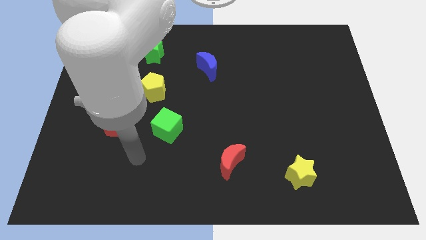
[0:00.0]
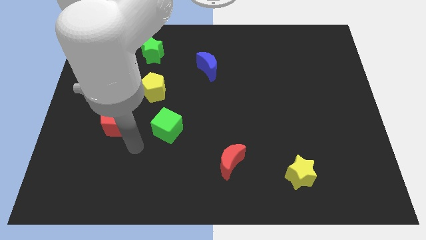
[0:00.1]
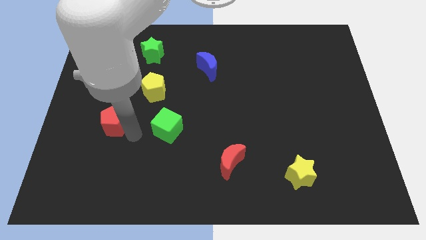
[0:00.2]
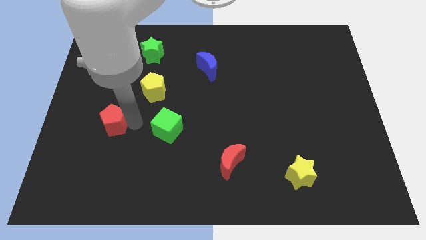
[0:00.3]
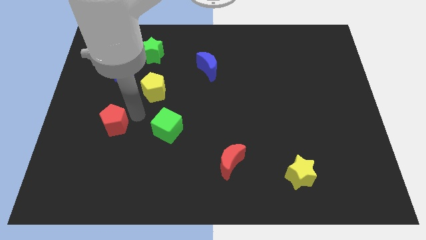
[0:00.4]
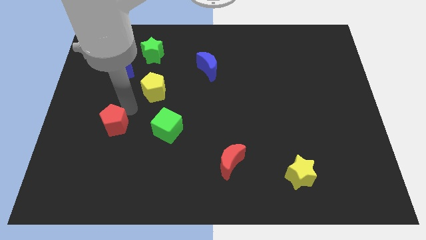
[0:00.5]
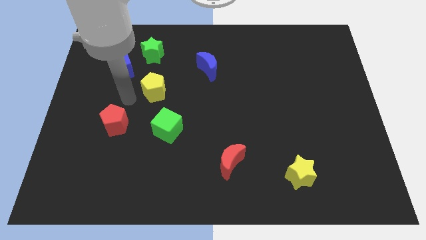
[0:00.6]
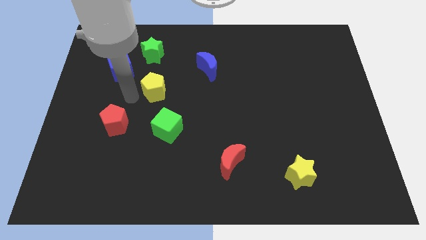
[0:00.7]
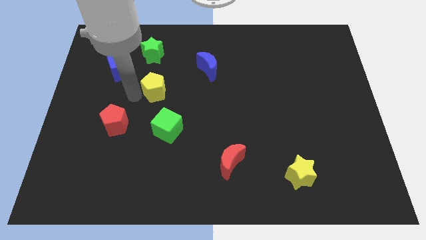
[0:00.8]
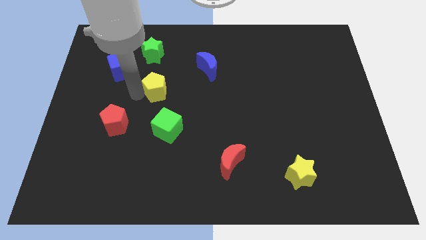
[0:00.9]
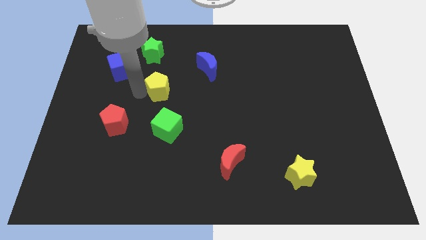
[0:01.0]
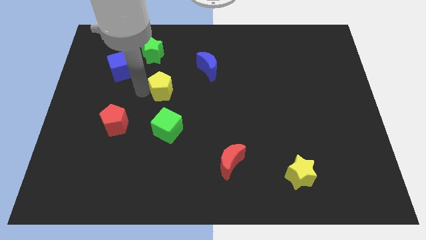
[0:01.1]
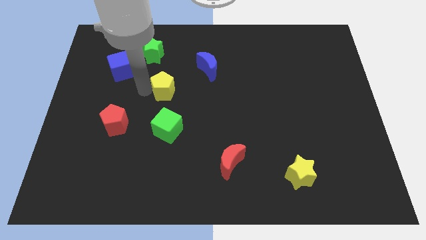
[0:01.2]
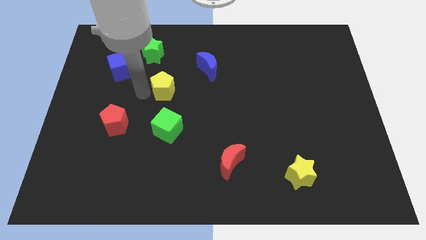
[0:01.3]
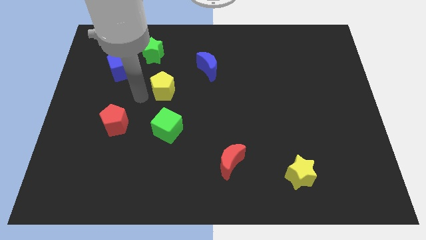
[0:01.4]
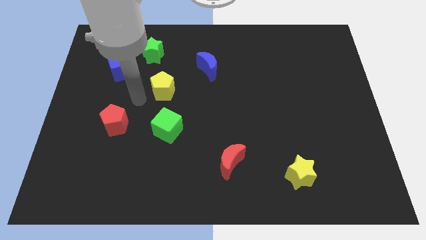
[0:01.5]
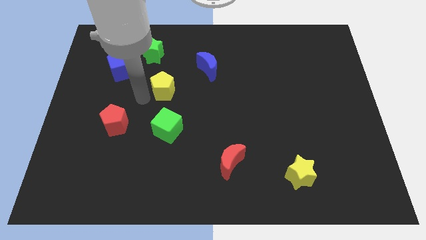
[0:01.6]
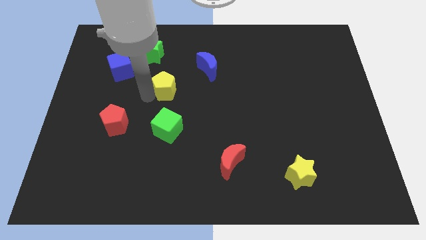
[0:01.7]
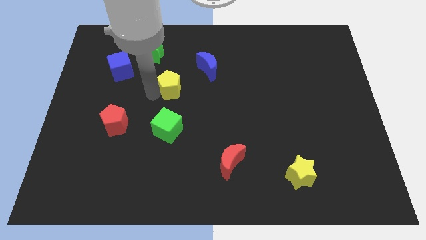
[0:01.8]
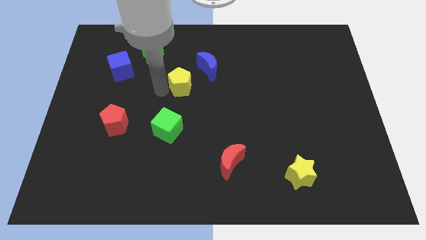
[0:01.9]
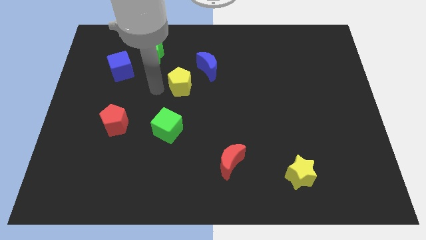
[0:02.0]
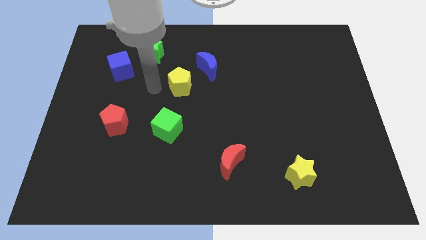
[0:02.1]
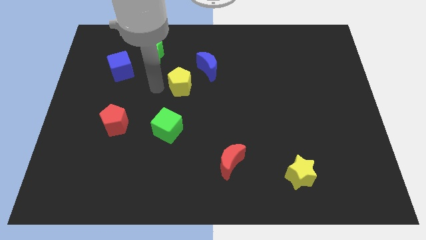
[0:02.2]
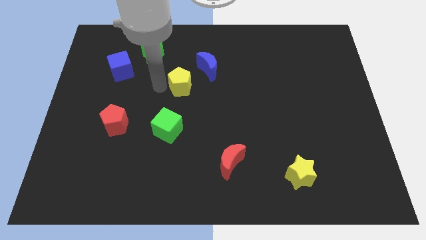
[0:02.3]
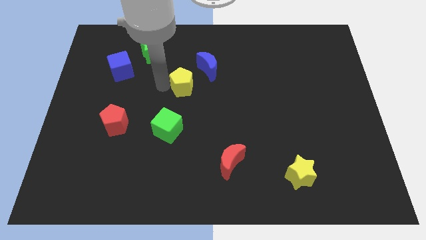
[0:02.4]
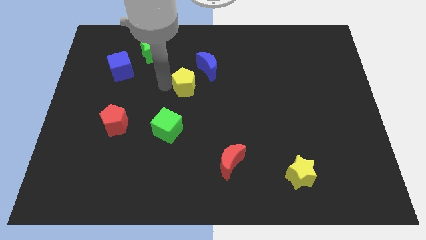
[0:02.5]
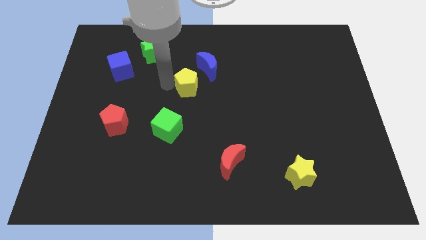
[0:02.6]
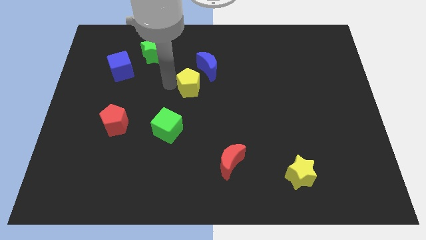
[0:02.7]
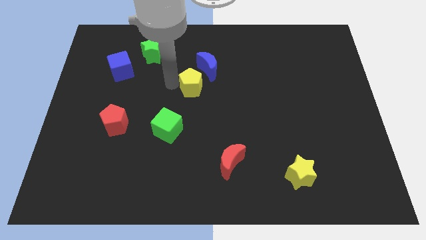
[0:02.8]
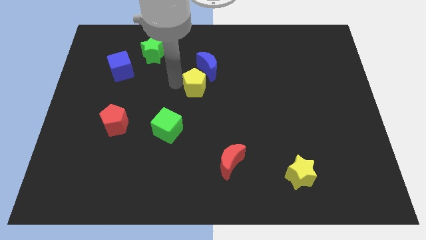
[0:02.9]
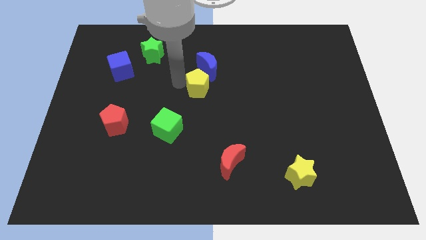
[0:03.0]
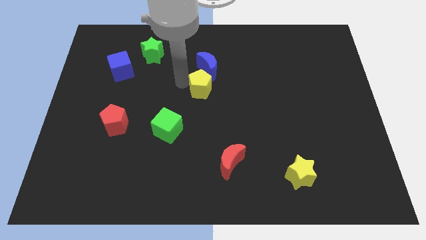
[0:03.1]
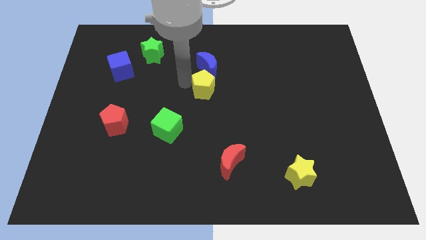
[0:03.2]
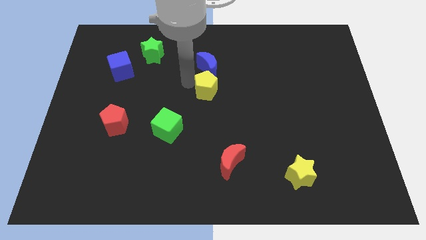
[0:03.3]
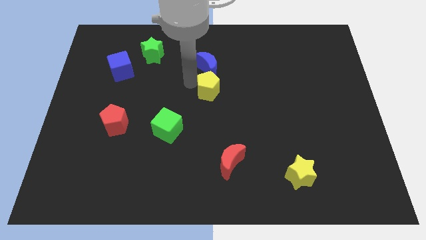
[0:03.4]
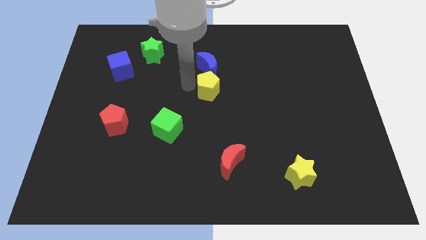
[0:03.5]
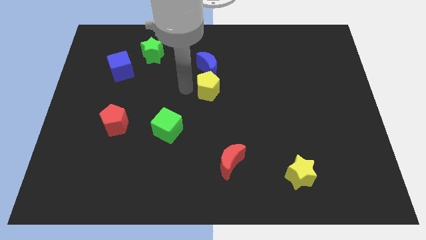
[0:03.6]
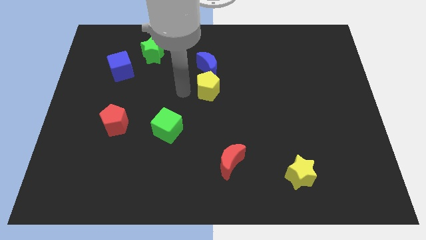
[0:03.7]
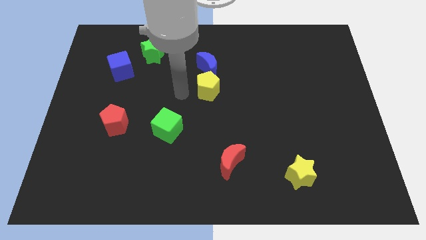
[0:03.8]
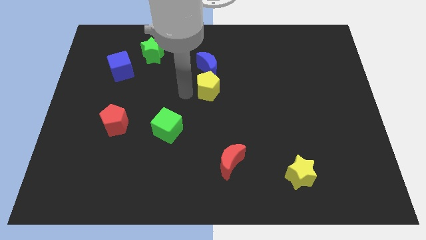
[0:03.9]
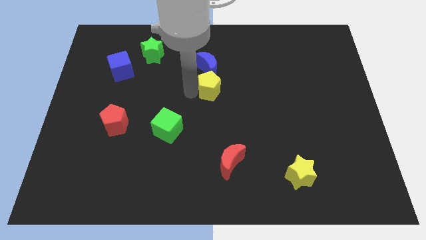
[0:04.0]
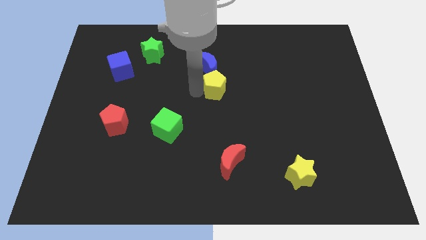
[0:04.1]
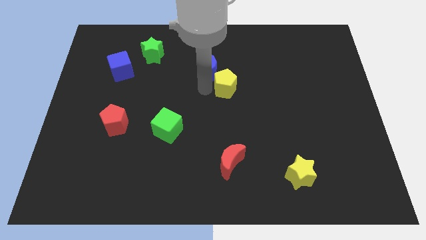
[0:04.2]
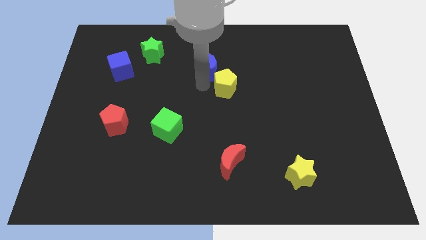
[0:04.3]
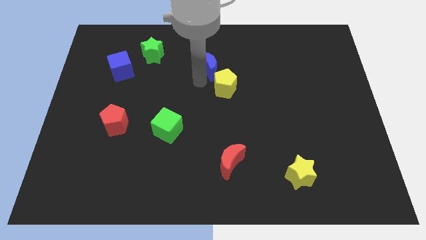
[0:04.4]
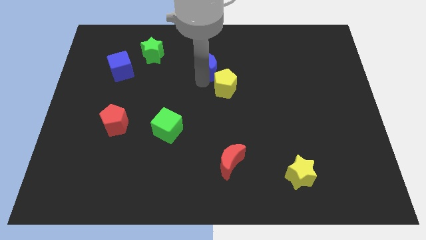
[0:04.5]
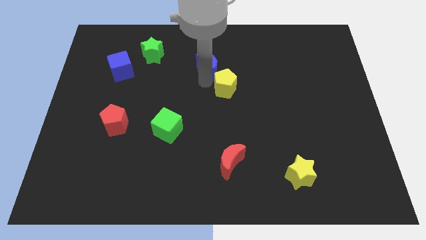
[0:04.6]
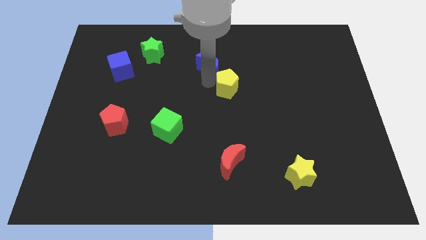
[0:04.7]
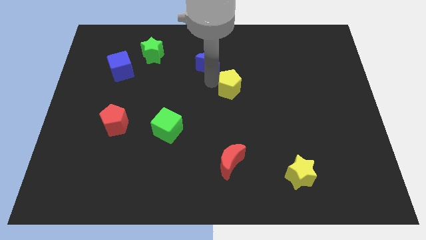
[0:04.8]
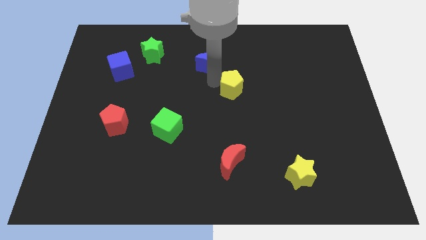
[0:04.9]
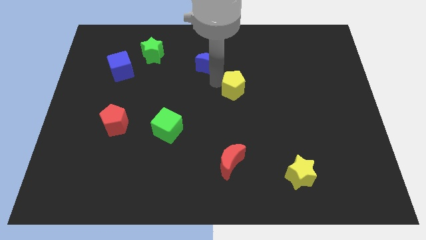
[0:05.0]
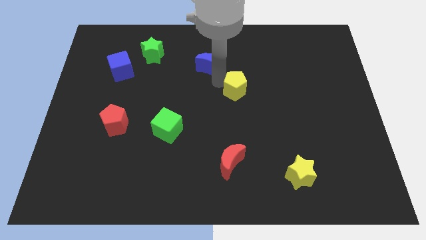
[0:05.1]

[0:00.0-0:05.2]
slide the yellow pentagon to the right

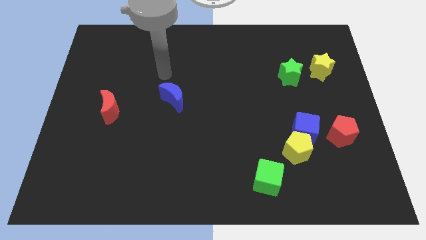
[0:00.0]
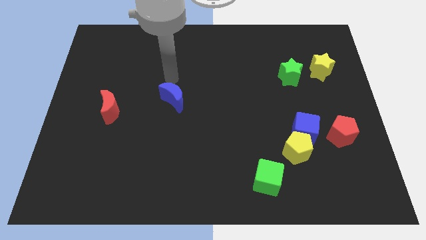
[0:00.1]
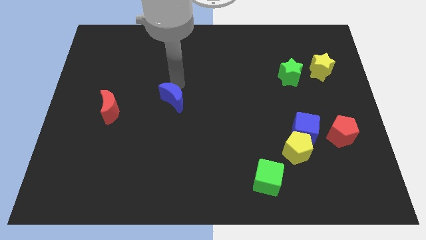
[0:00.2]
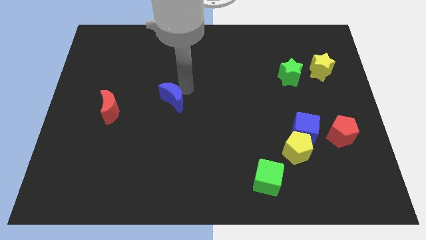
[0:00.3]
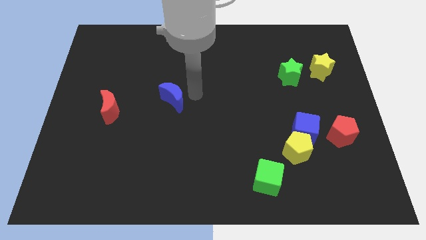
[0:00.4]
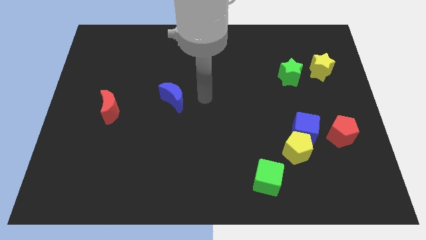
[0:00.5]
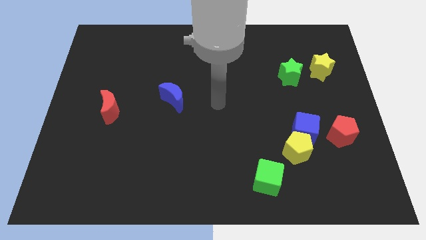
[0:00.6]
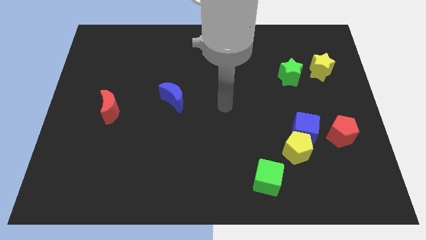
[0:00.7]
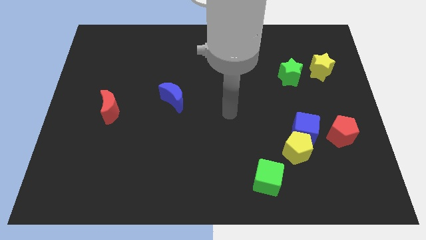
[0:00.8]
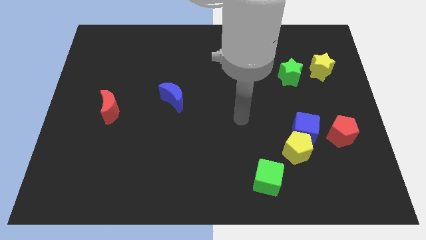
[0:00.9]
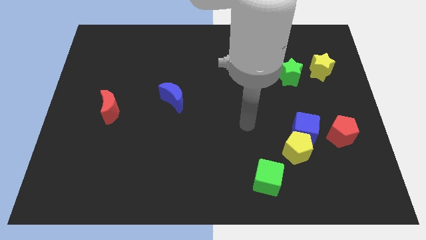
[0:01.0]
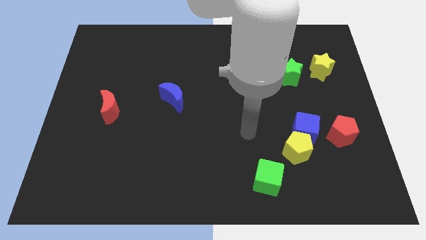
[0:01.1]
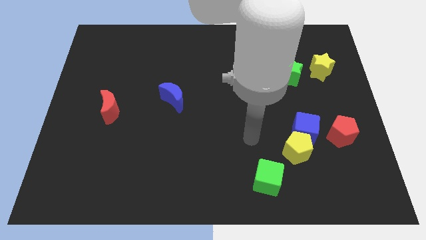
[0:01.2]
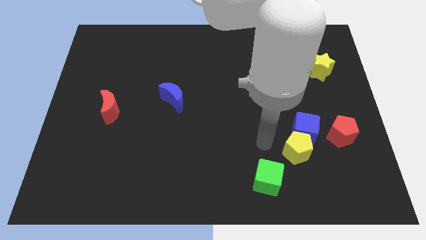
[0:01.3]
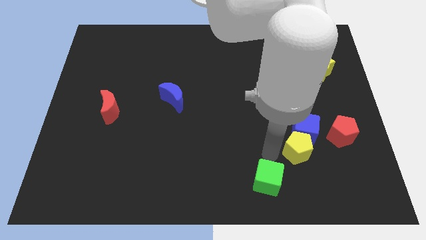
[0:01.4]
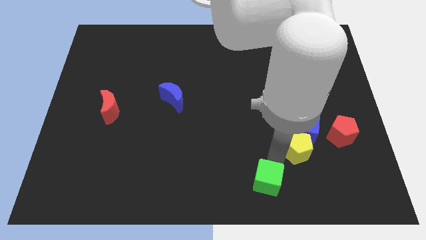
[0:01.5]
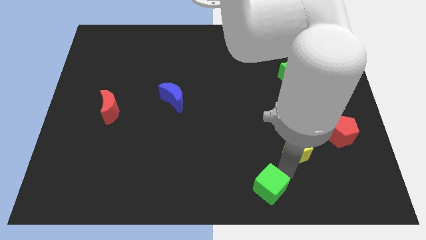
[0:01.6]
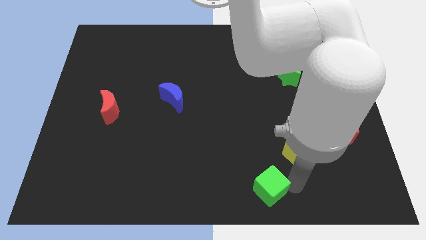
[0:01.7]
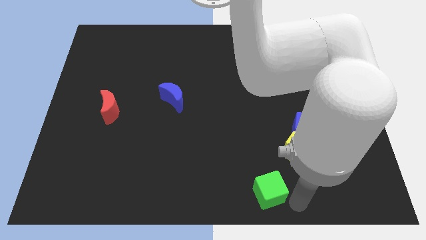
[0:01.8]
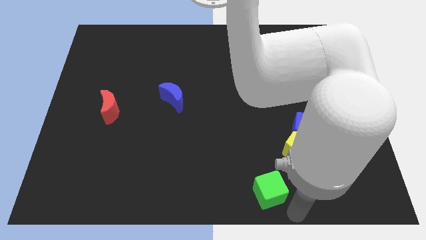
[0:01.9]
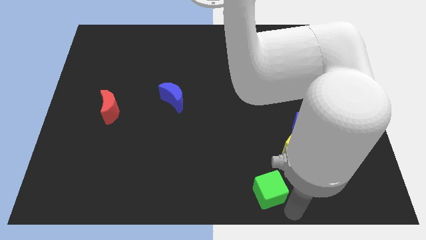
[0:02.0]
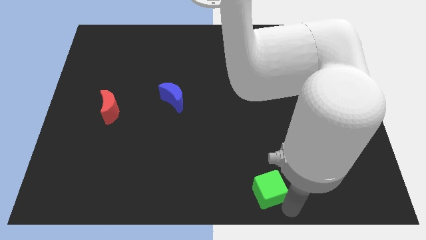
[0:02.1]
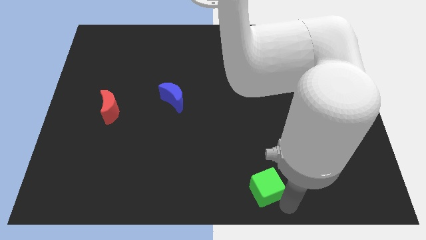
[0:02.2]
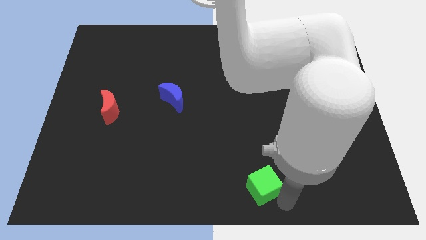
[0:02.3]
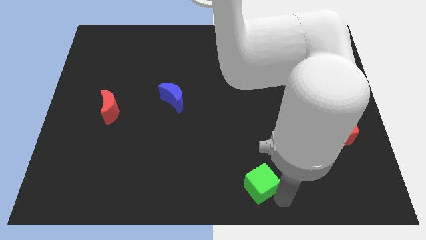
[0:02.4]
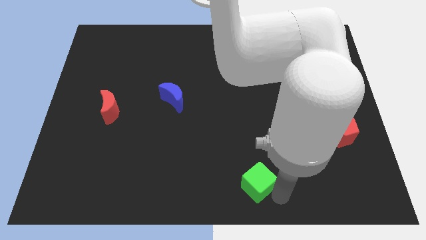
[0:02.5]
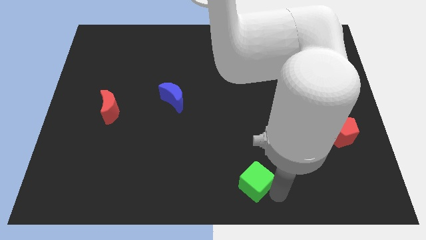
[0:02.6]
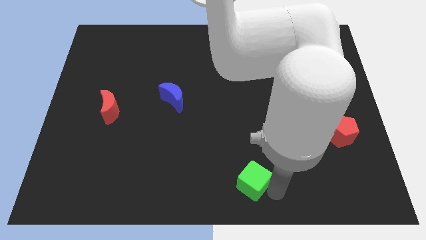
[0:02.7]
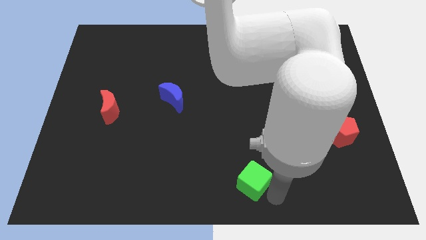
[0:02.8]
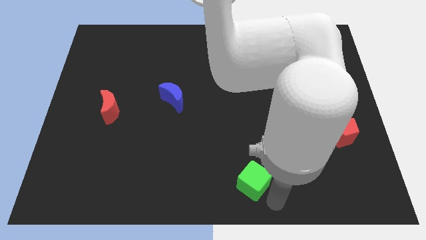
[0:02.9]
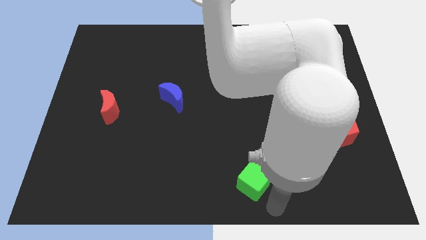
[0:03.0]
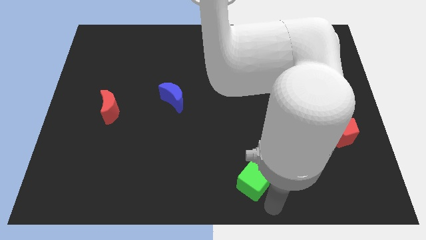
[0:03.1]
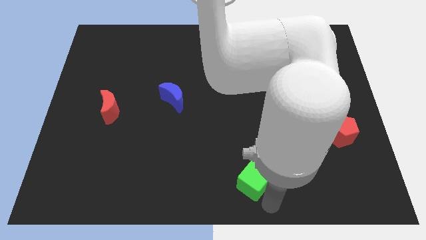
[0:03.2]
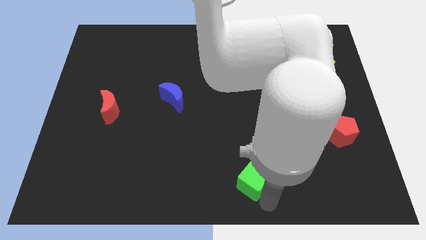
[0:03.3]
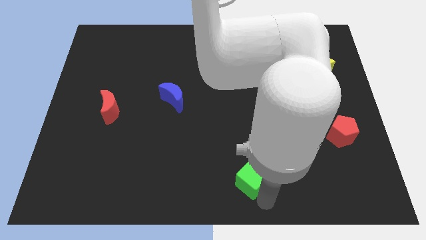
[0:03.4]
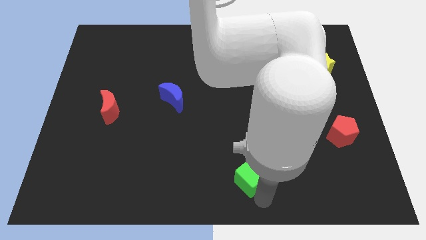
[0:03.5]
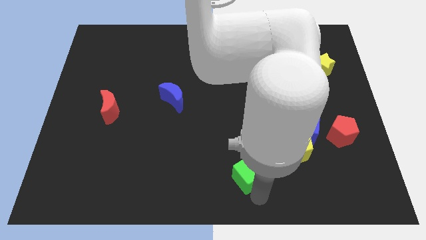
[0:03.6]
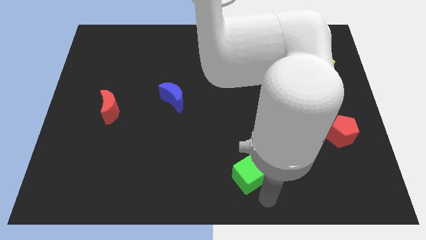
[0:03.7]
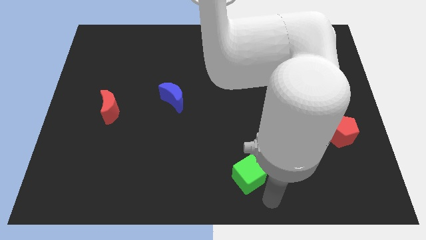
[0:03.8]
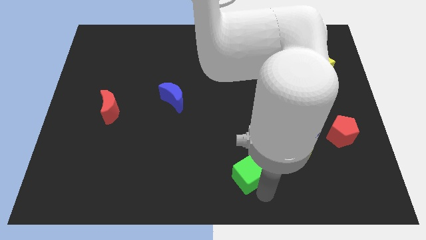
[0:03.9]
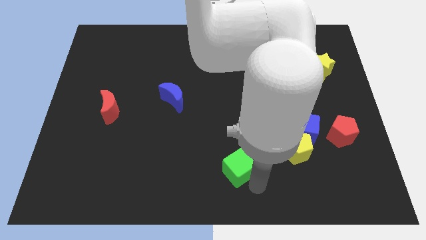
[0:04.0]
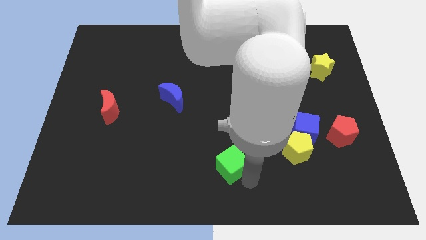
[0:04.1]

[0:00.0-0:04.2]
slide the green cube slightly upwards and left
